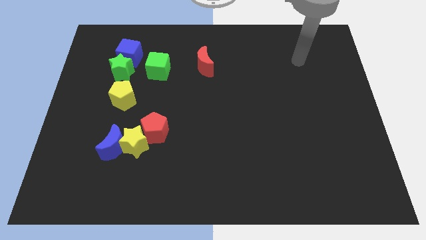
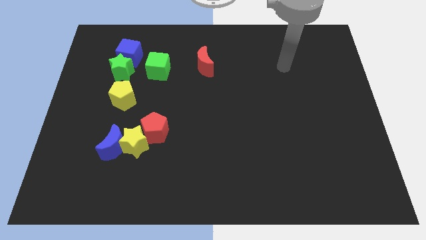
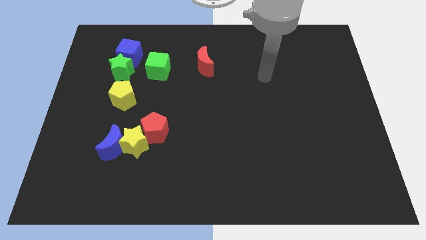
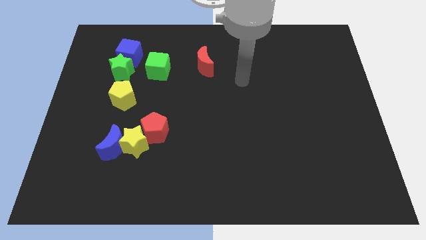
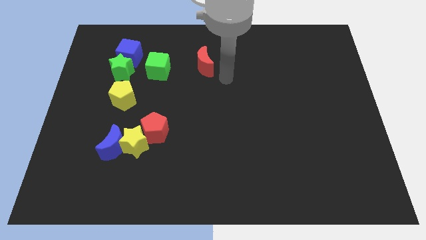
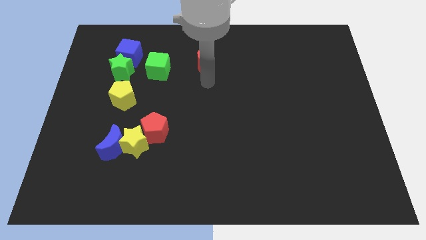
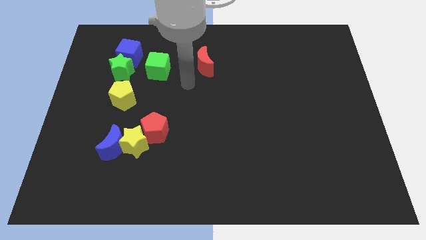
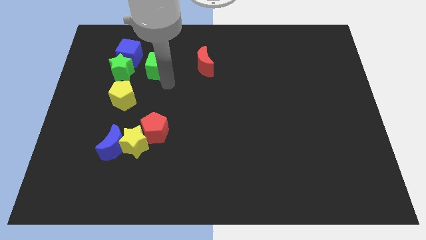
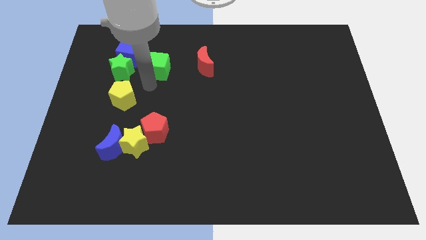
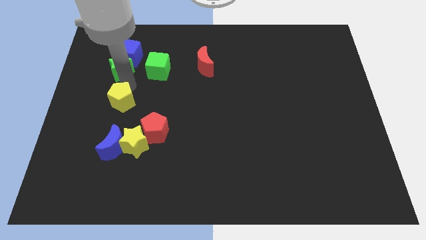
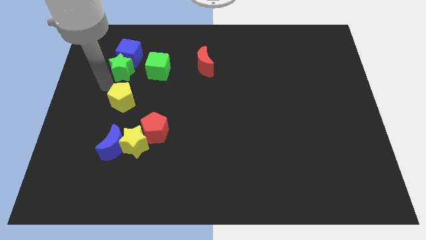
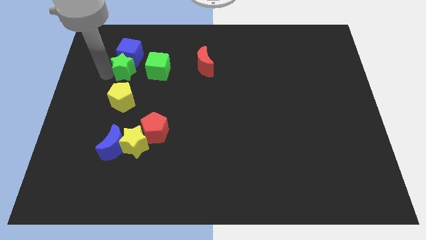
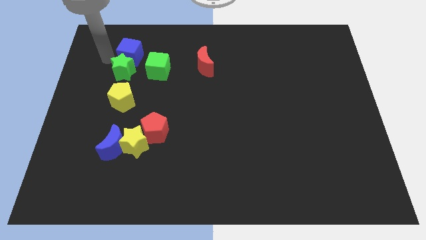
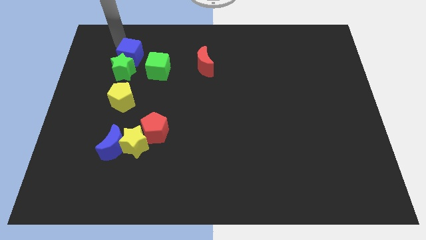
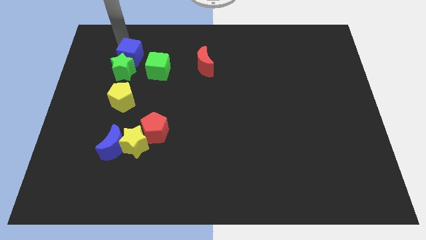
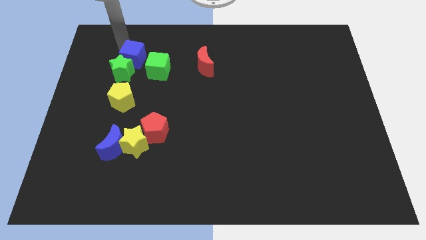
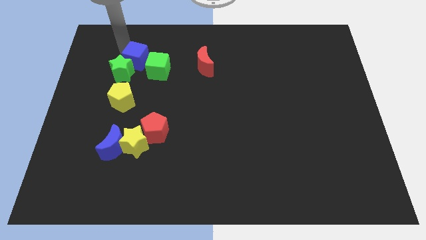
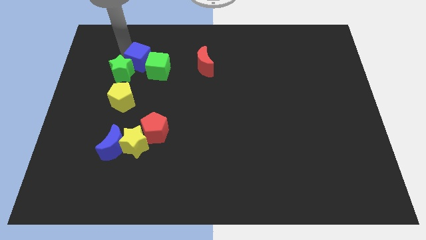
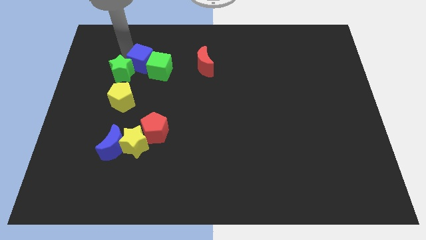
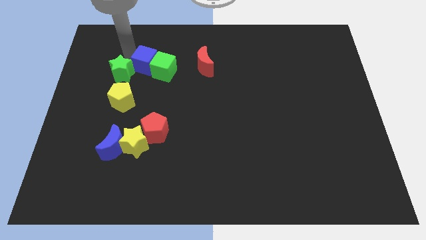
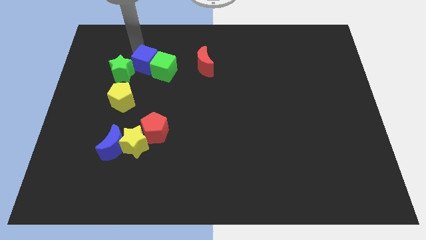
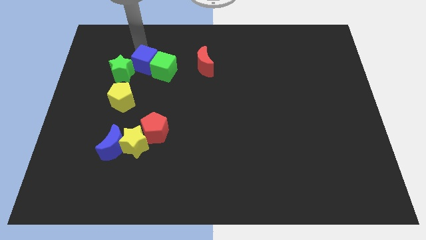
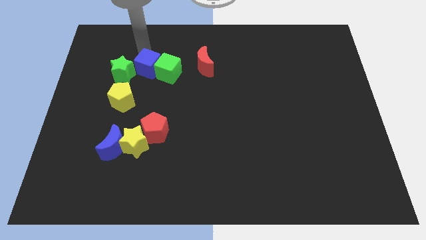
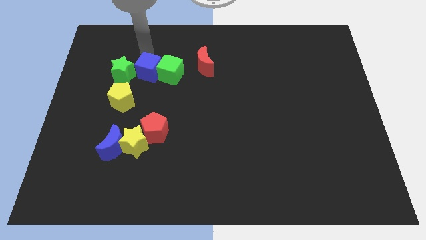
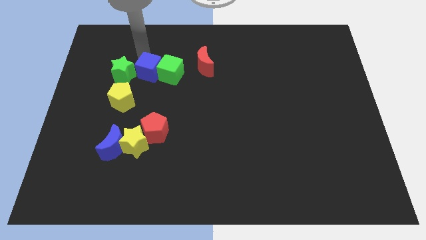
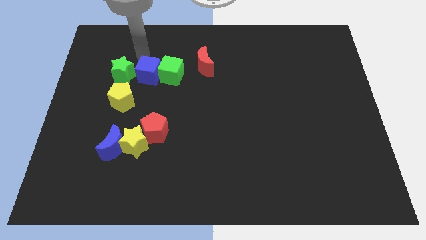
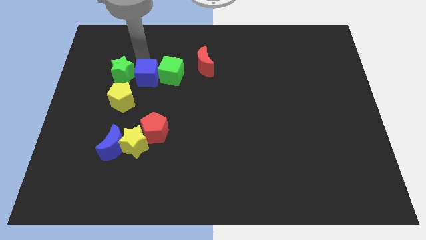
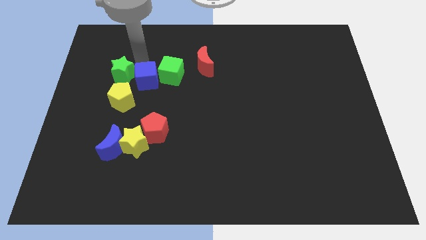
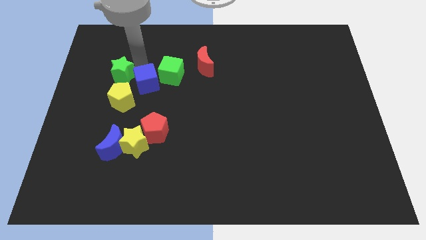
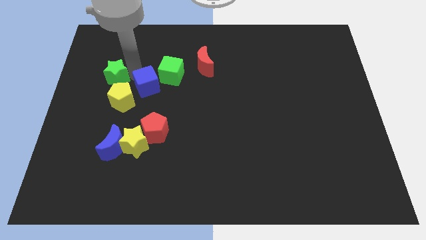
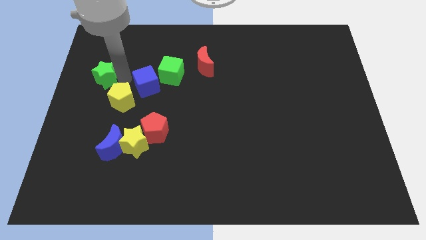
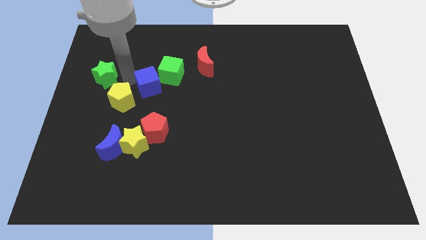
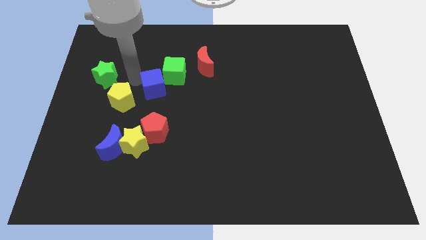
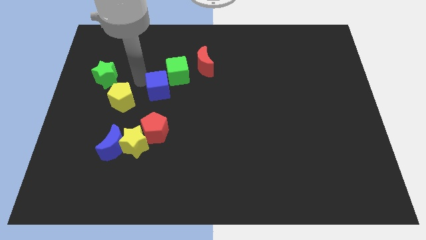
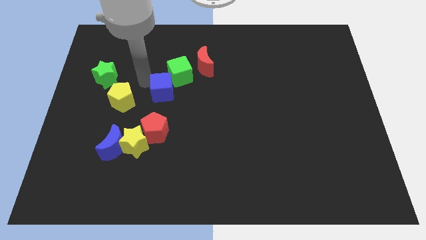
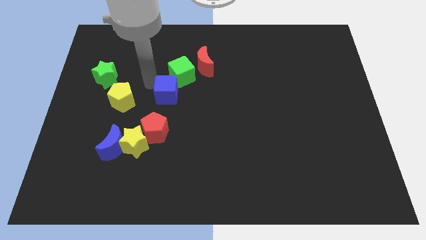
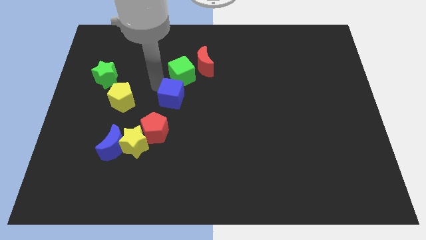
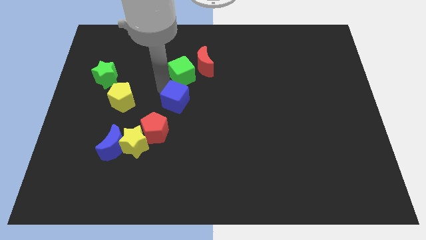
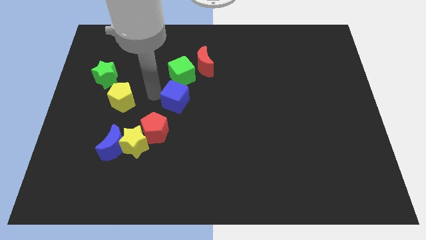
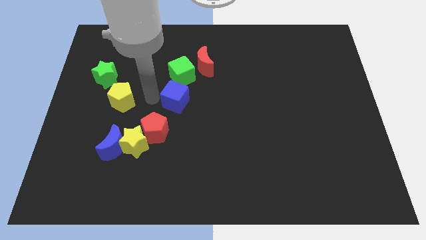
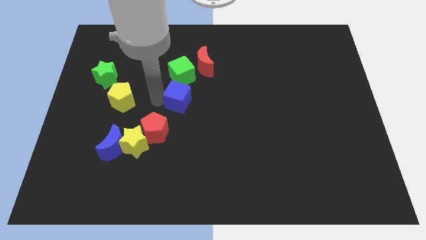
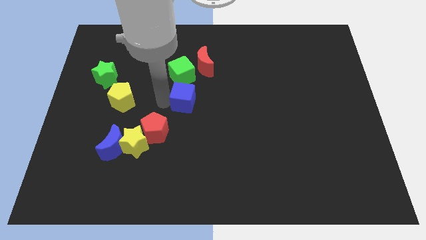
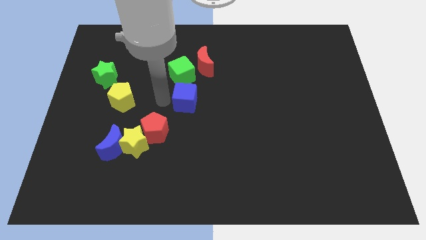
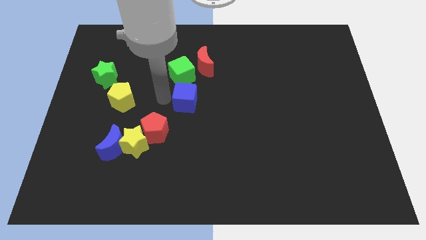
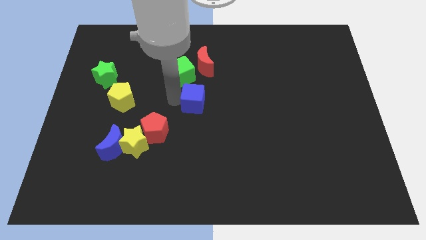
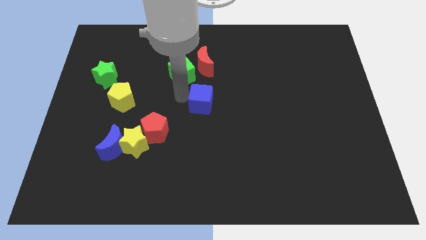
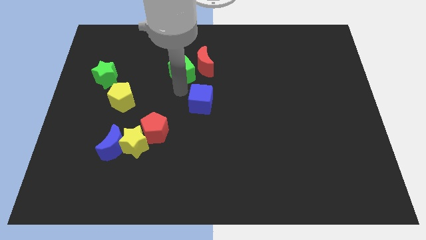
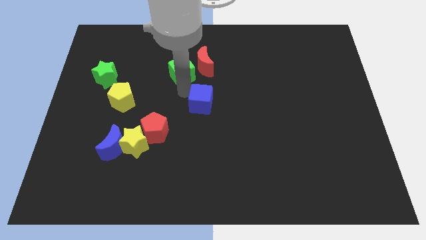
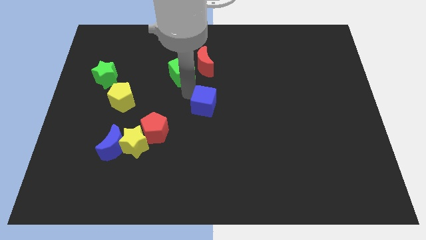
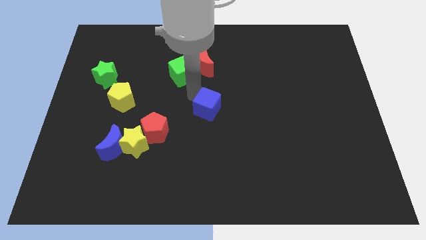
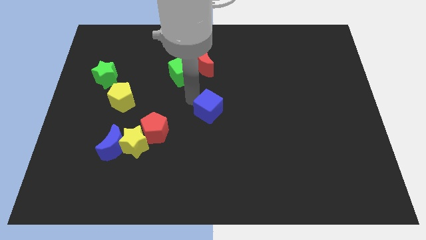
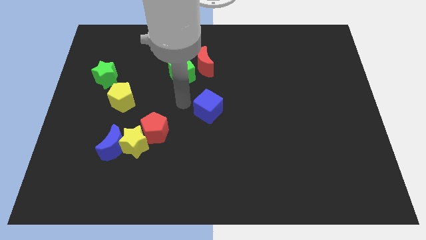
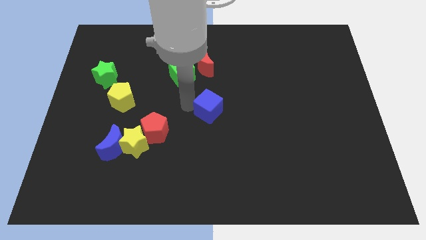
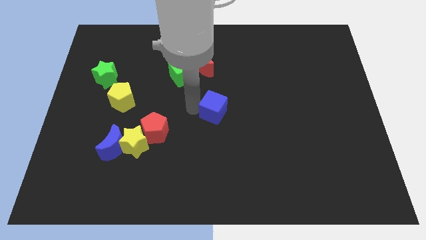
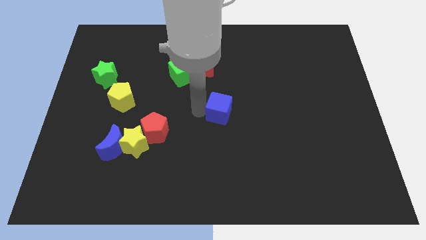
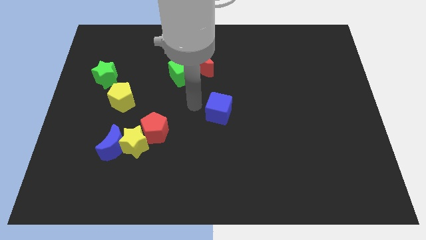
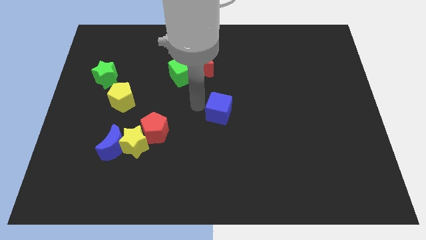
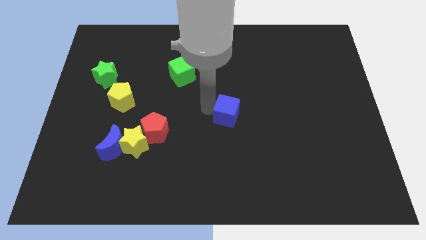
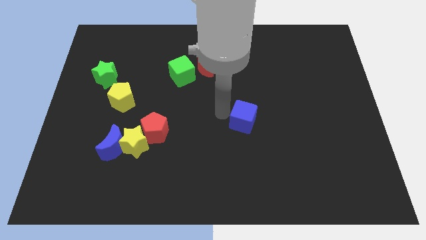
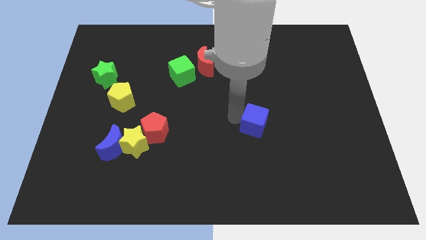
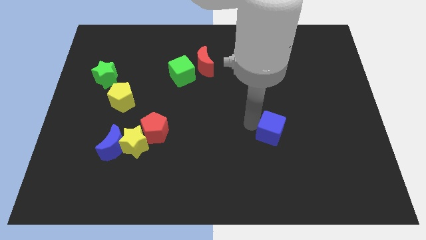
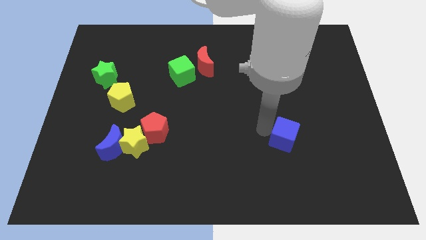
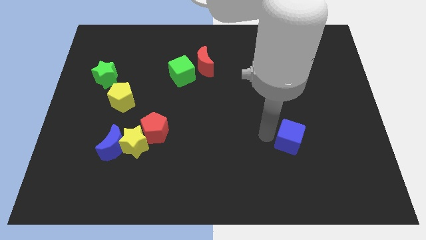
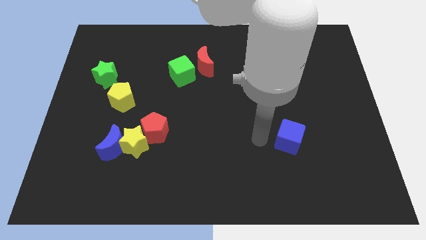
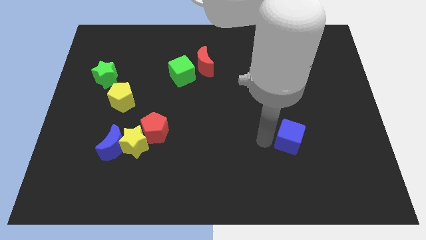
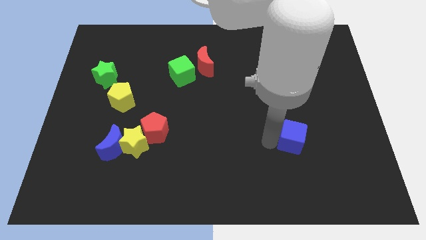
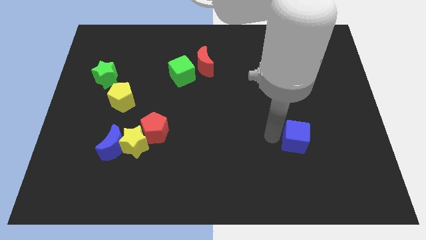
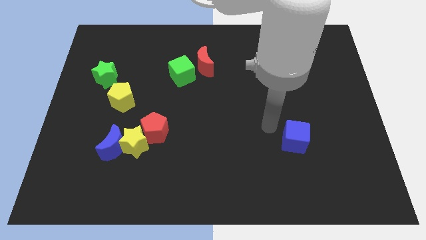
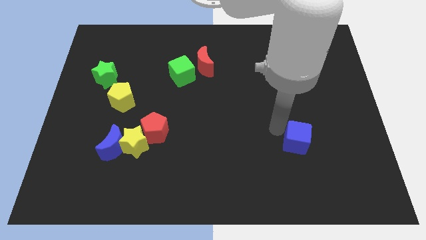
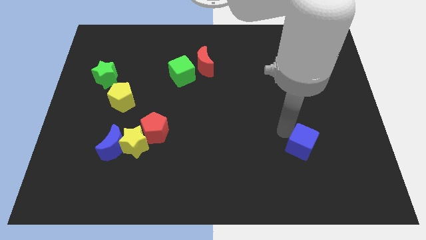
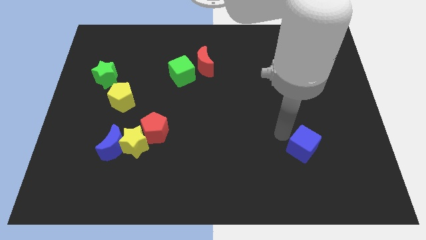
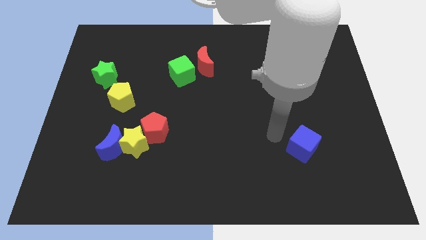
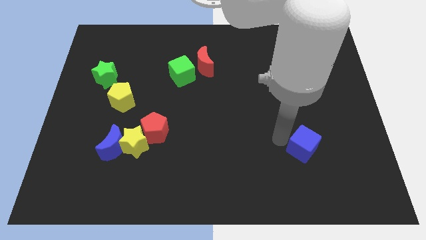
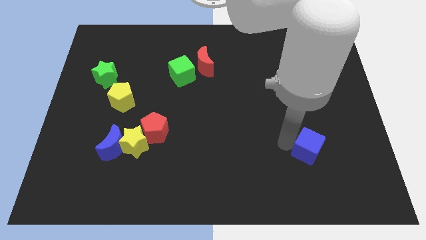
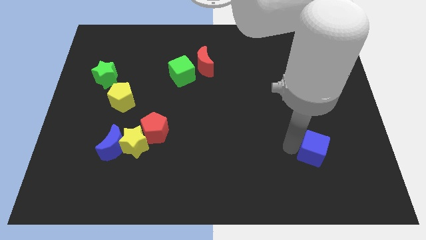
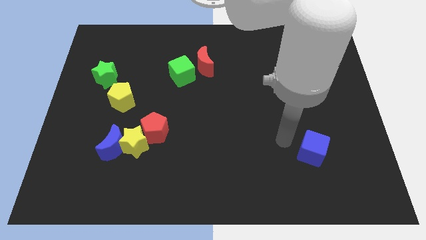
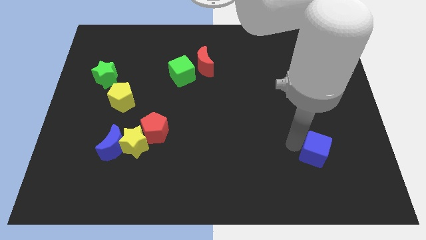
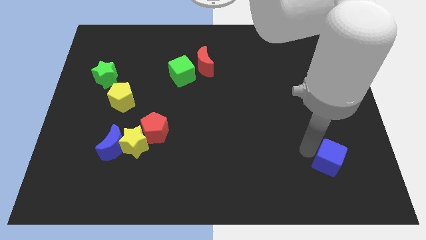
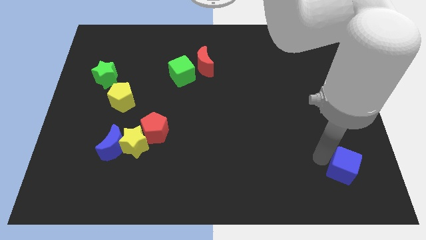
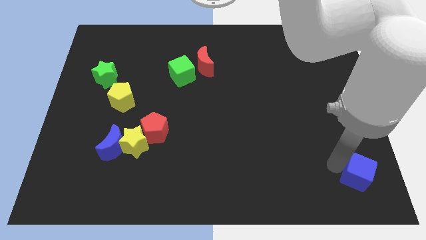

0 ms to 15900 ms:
push the blue cube to the bottom right of the board
